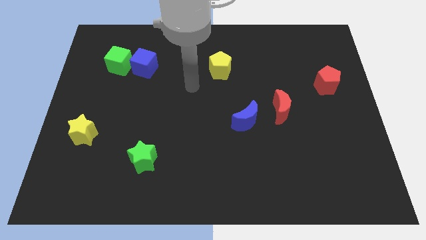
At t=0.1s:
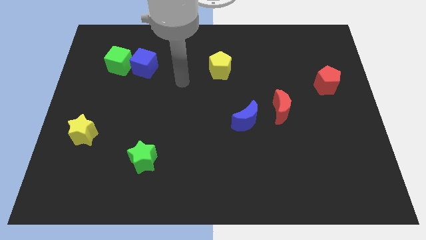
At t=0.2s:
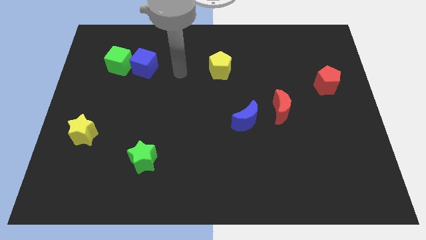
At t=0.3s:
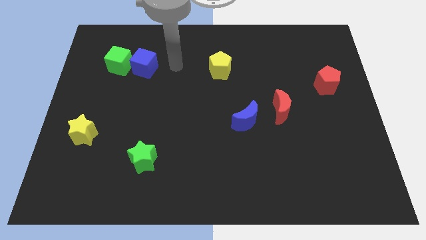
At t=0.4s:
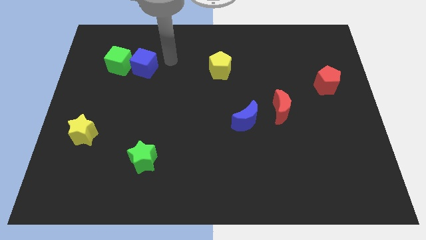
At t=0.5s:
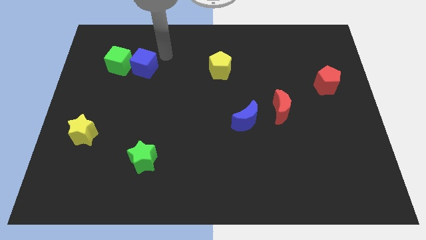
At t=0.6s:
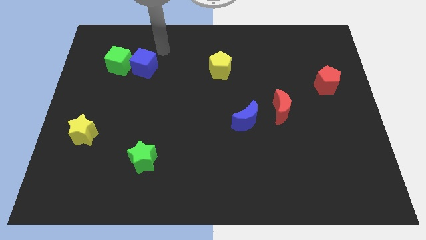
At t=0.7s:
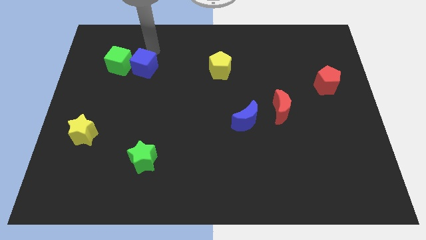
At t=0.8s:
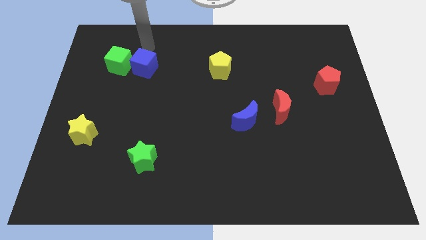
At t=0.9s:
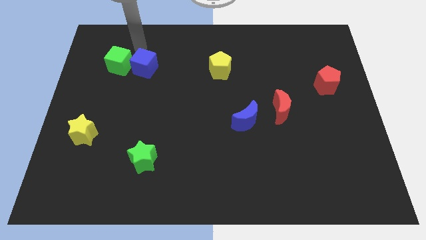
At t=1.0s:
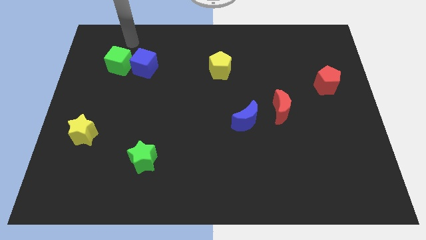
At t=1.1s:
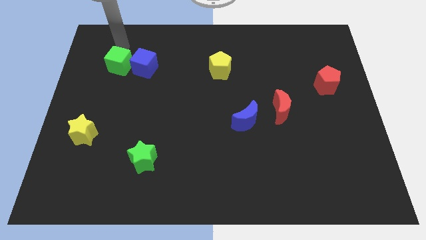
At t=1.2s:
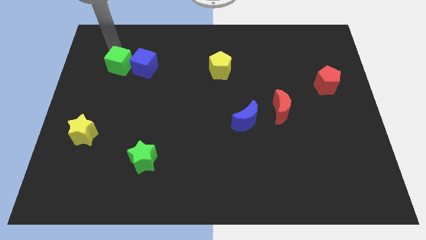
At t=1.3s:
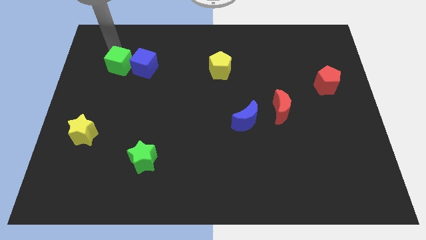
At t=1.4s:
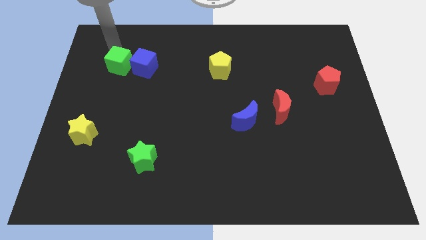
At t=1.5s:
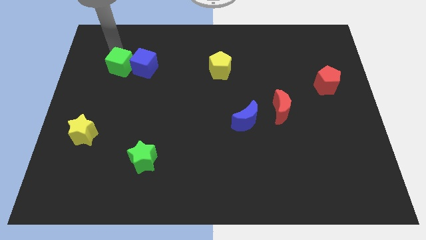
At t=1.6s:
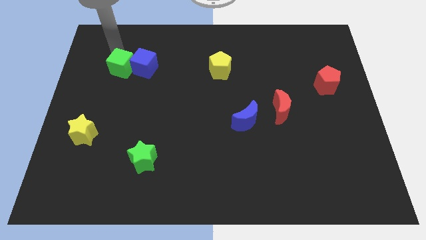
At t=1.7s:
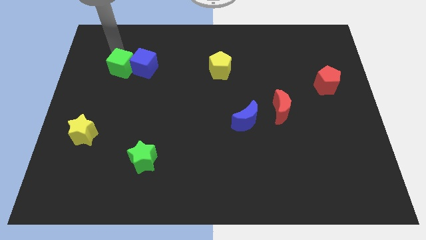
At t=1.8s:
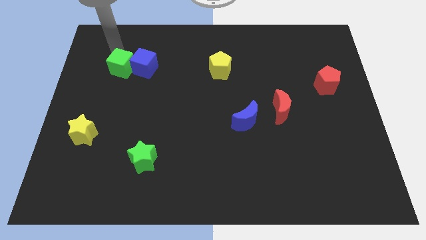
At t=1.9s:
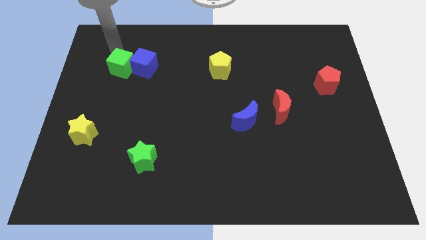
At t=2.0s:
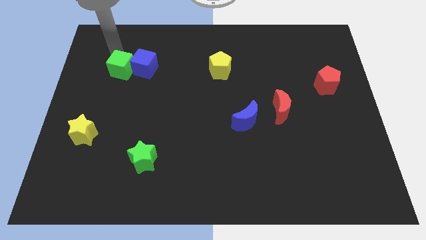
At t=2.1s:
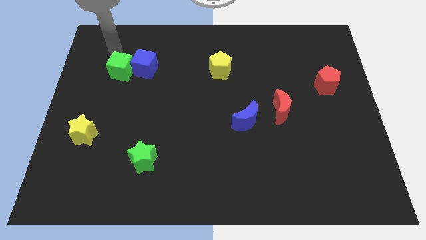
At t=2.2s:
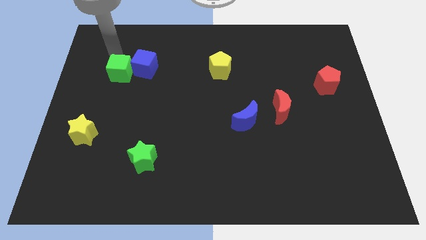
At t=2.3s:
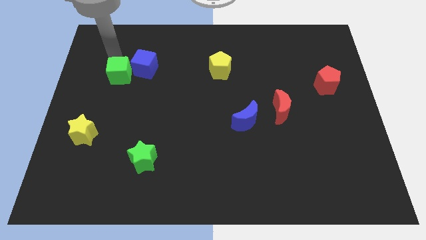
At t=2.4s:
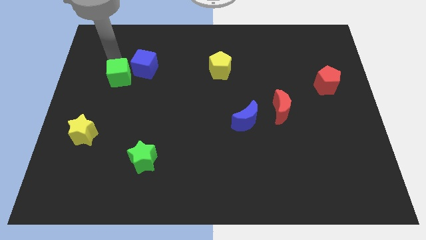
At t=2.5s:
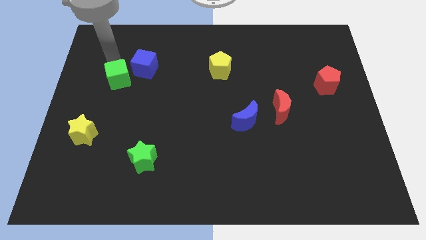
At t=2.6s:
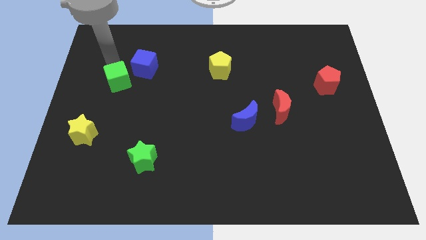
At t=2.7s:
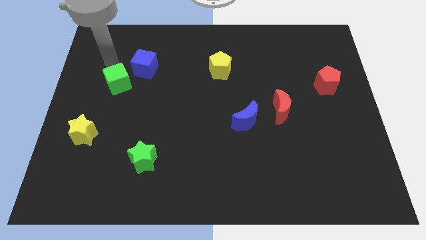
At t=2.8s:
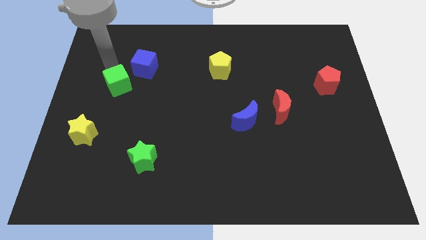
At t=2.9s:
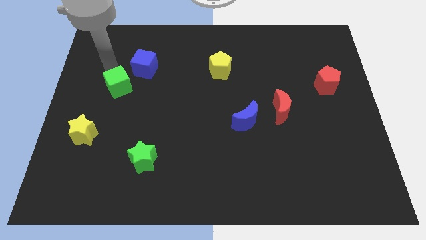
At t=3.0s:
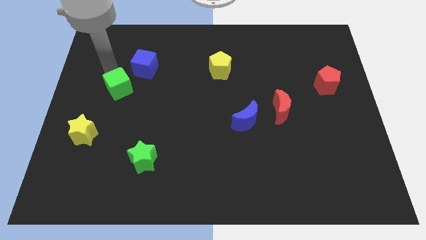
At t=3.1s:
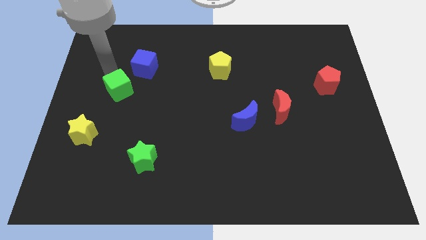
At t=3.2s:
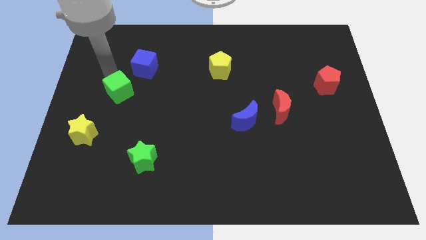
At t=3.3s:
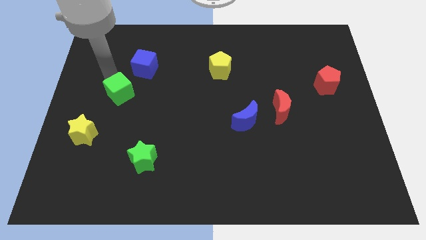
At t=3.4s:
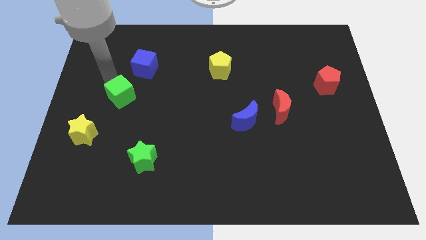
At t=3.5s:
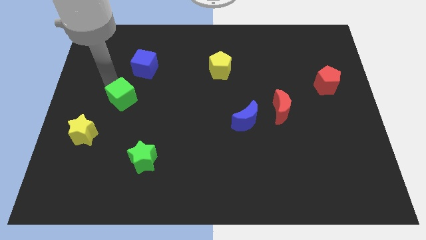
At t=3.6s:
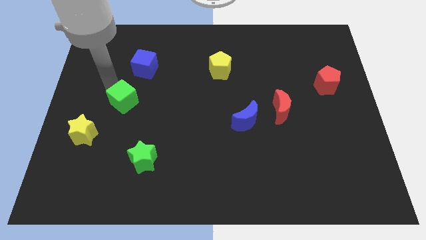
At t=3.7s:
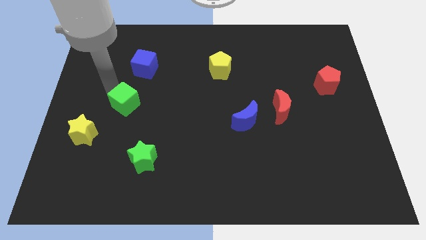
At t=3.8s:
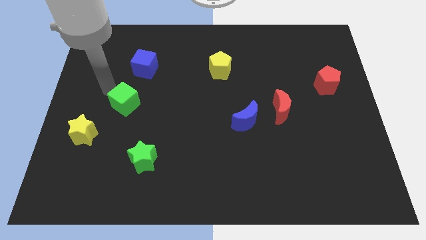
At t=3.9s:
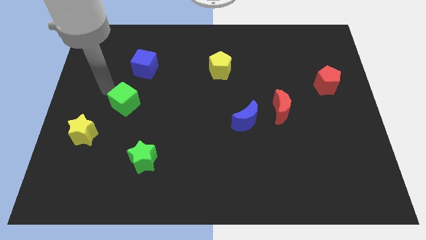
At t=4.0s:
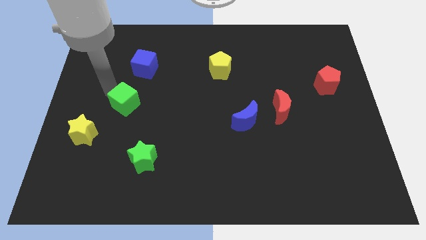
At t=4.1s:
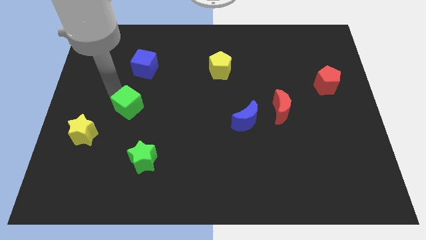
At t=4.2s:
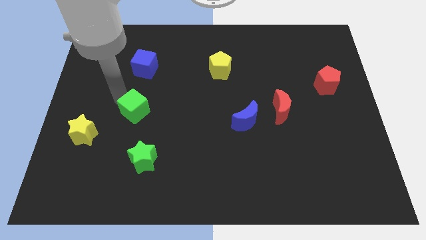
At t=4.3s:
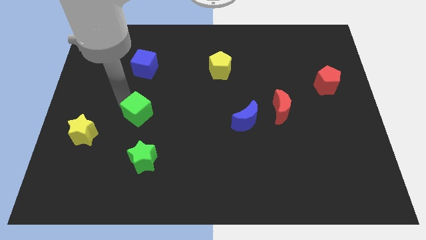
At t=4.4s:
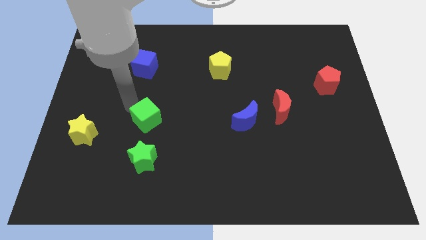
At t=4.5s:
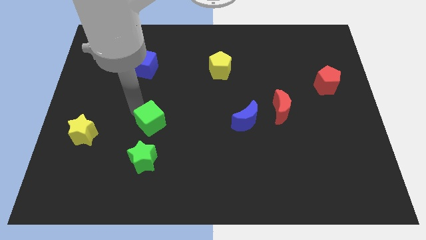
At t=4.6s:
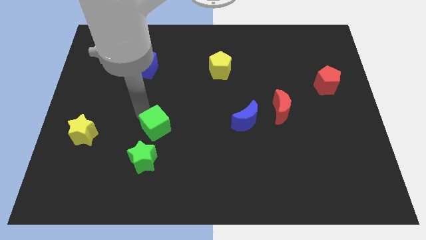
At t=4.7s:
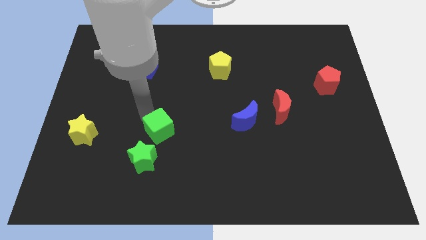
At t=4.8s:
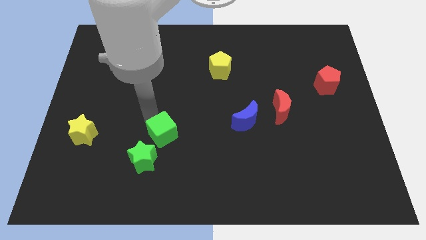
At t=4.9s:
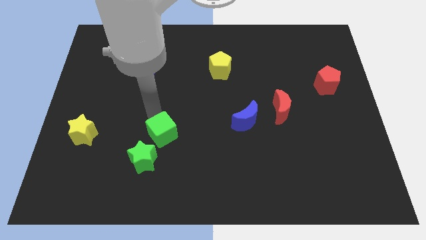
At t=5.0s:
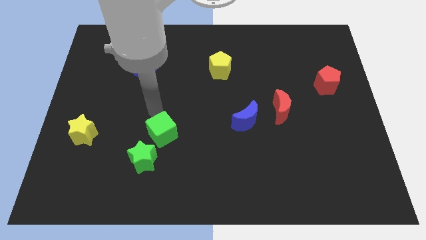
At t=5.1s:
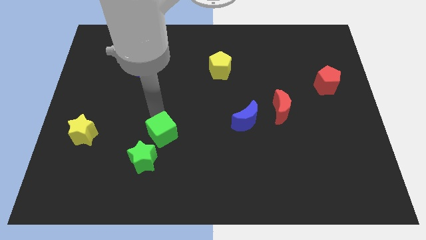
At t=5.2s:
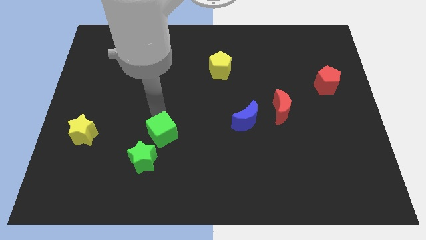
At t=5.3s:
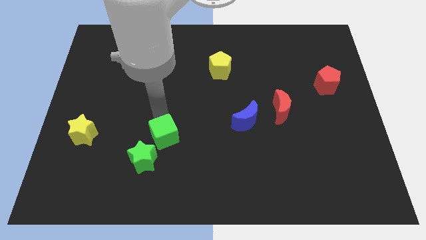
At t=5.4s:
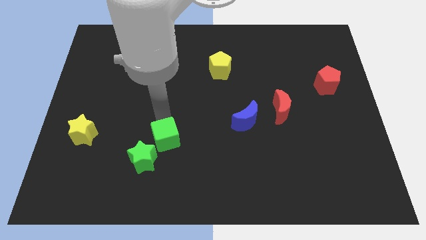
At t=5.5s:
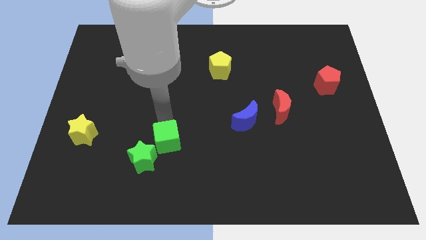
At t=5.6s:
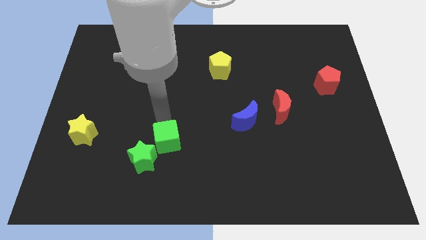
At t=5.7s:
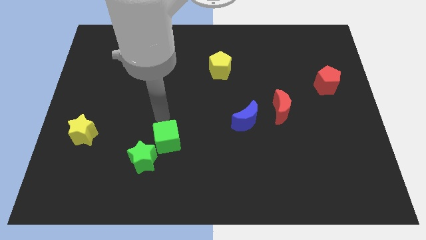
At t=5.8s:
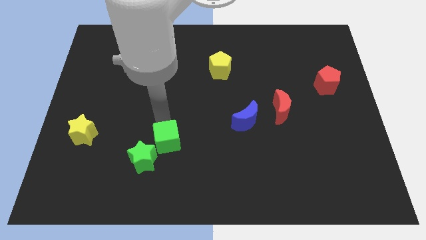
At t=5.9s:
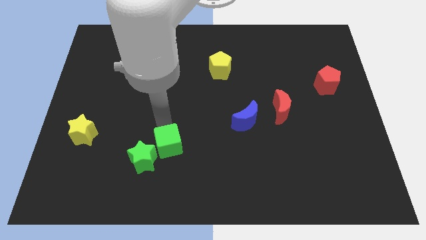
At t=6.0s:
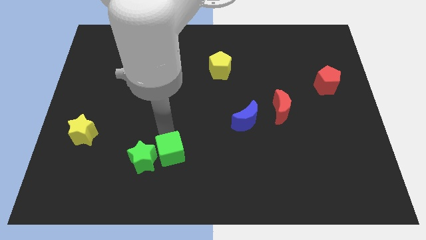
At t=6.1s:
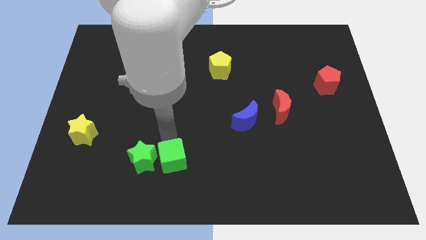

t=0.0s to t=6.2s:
put the green cube diagonally down and to the right of the green star

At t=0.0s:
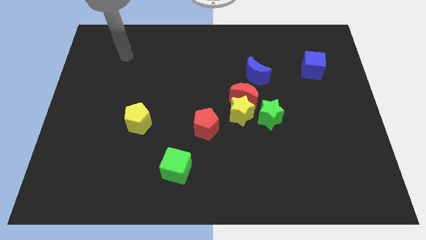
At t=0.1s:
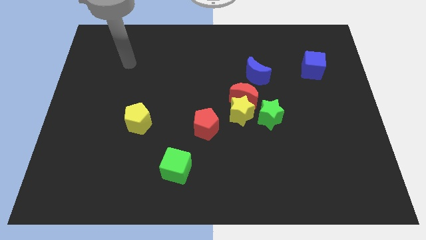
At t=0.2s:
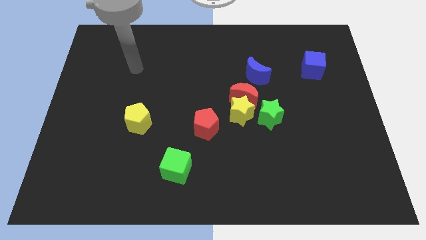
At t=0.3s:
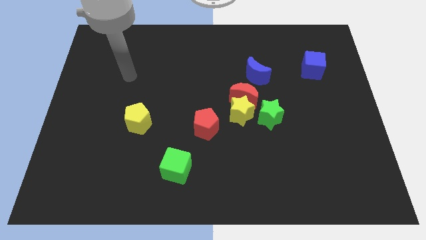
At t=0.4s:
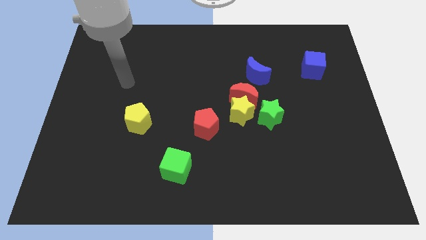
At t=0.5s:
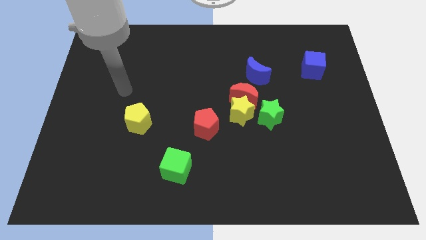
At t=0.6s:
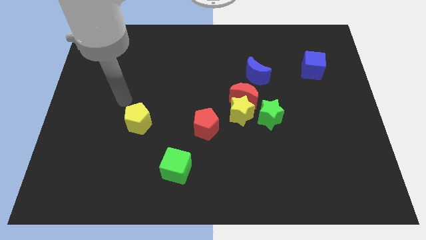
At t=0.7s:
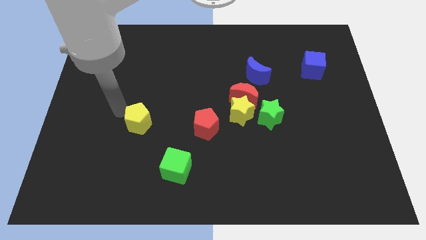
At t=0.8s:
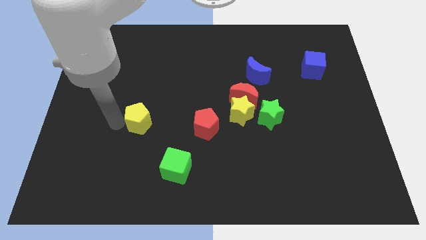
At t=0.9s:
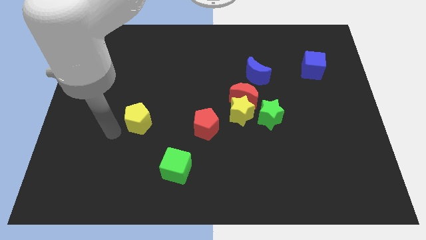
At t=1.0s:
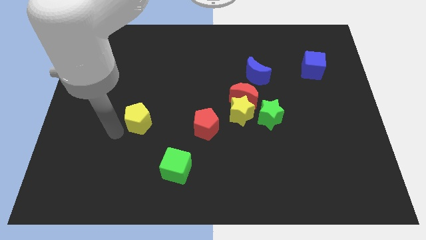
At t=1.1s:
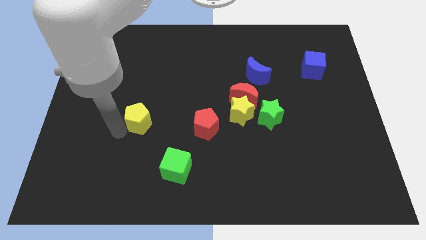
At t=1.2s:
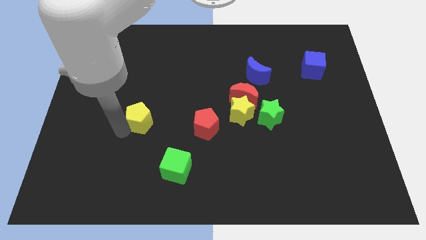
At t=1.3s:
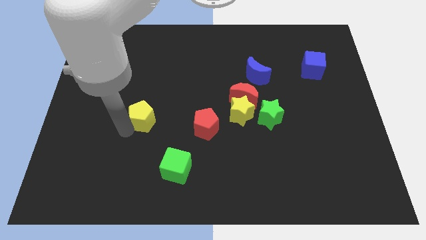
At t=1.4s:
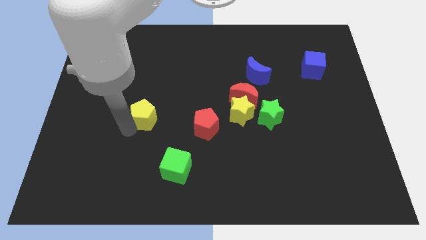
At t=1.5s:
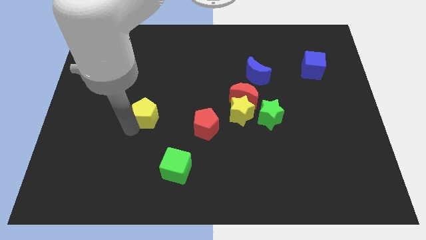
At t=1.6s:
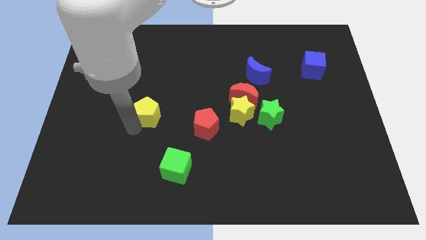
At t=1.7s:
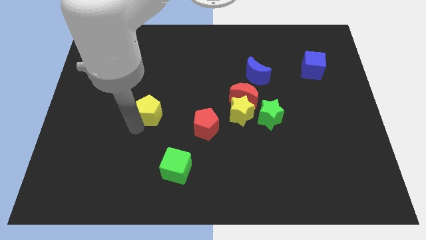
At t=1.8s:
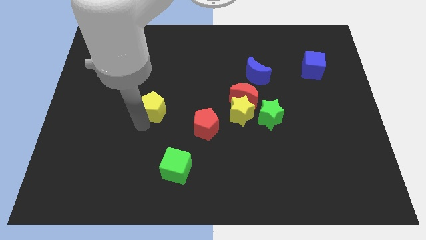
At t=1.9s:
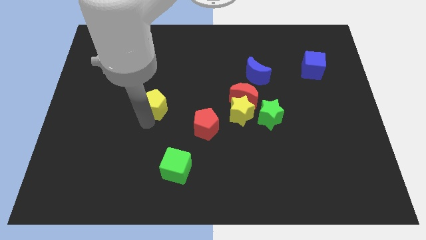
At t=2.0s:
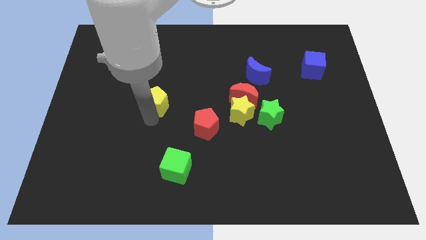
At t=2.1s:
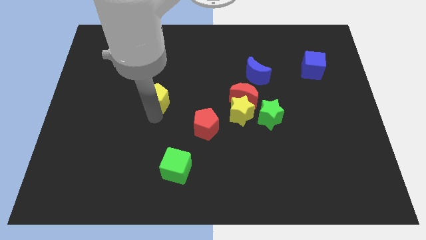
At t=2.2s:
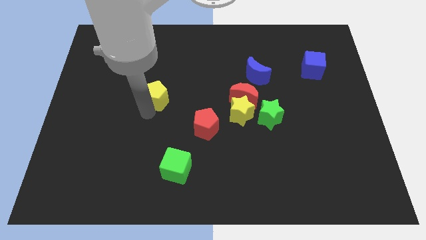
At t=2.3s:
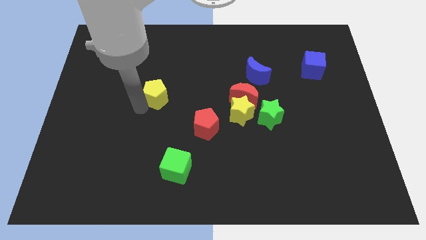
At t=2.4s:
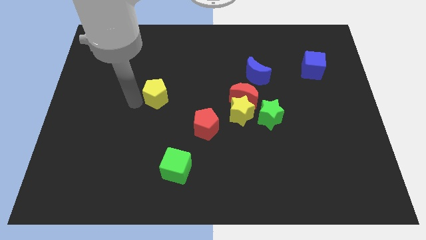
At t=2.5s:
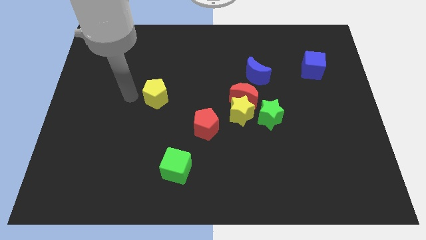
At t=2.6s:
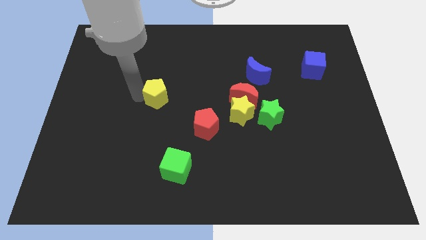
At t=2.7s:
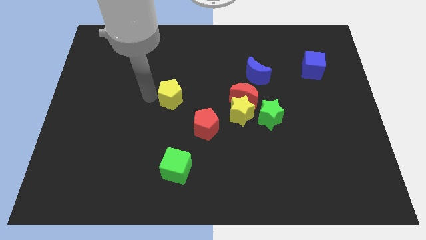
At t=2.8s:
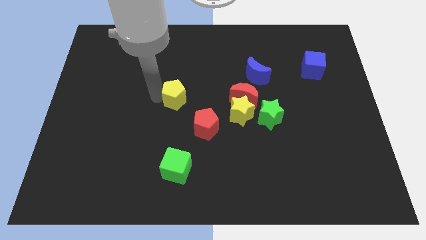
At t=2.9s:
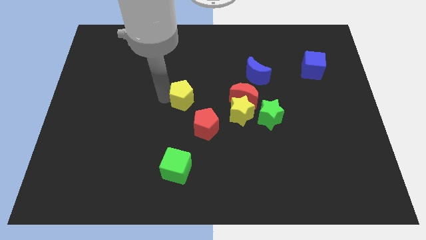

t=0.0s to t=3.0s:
move the yellow pentagon just left of the red moon
